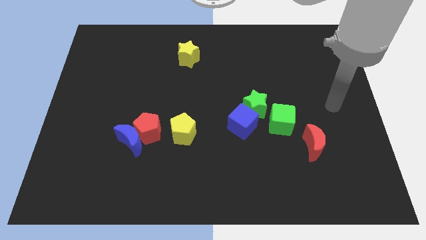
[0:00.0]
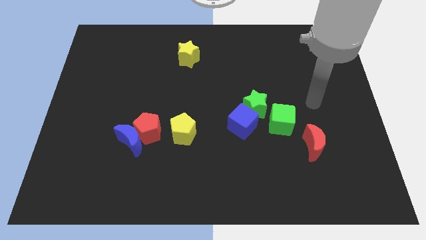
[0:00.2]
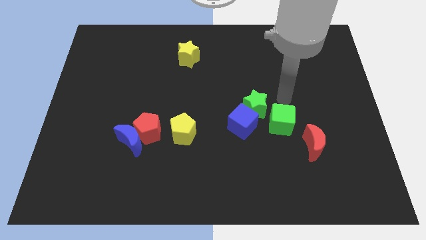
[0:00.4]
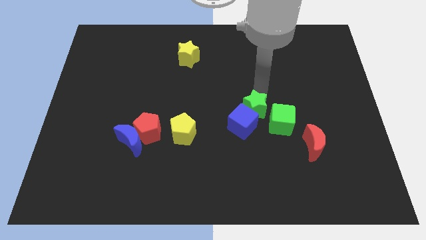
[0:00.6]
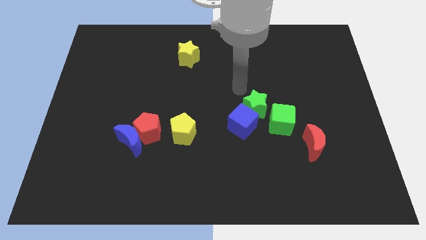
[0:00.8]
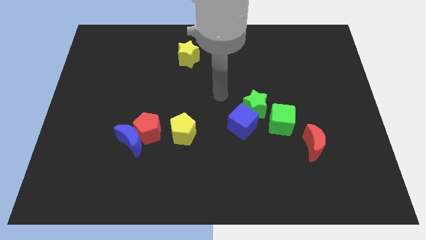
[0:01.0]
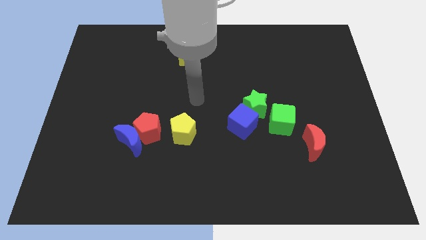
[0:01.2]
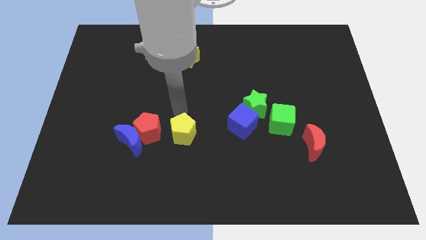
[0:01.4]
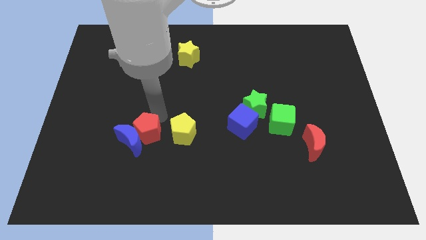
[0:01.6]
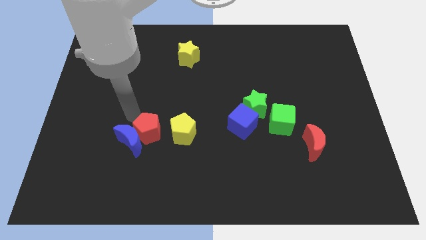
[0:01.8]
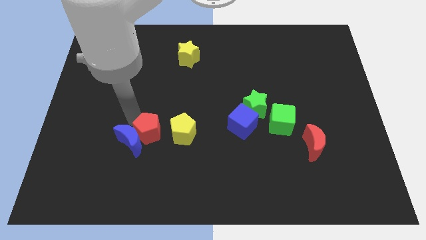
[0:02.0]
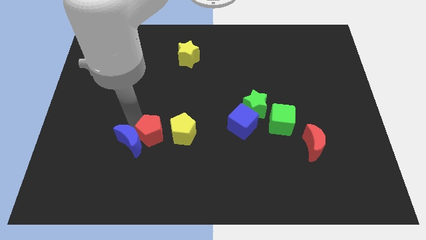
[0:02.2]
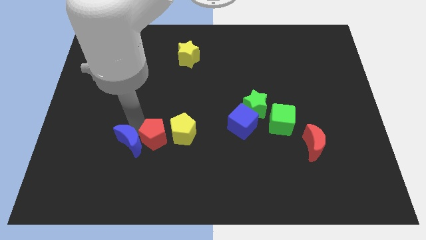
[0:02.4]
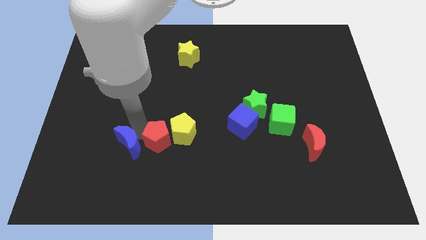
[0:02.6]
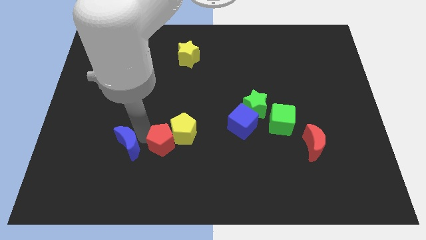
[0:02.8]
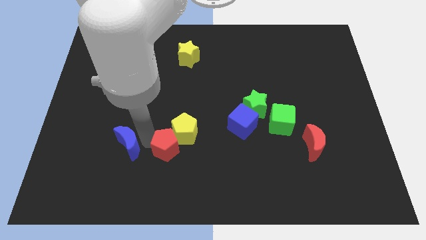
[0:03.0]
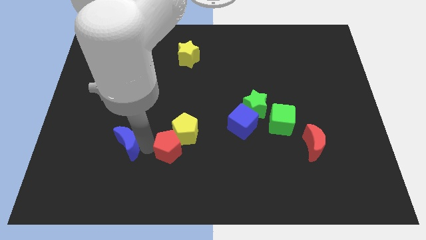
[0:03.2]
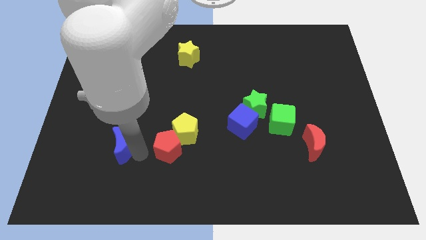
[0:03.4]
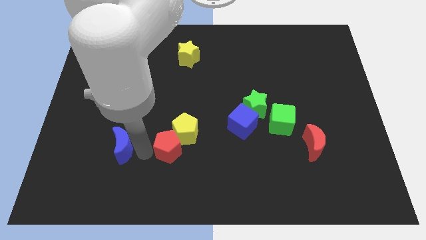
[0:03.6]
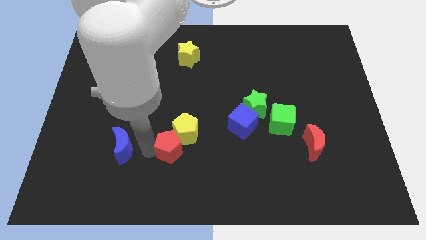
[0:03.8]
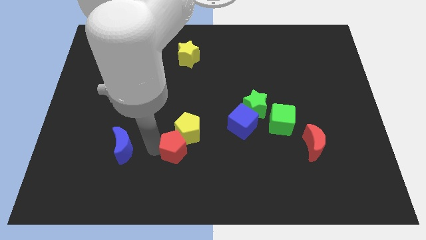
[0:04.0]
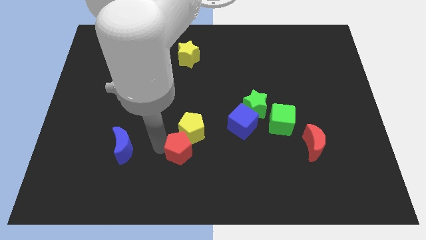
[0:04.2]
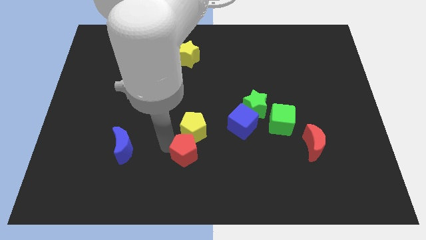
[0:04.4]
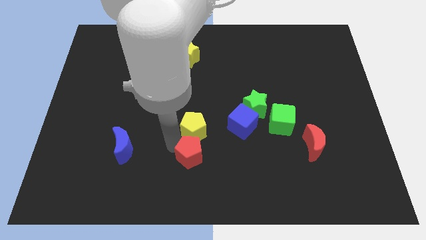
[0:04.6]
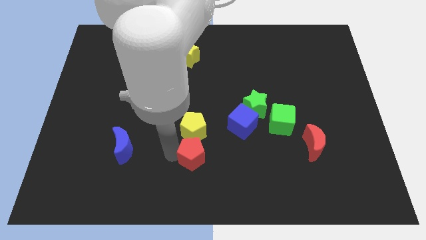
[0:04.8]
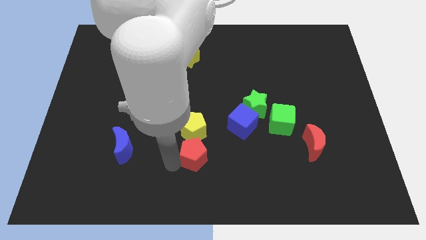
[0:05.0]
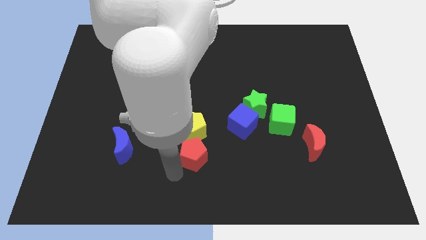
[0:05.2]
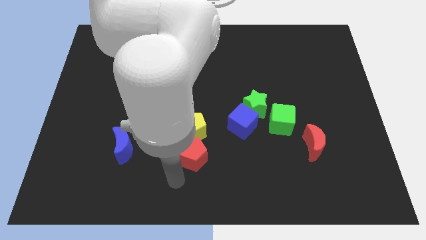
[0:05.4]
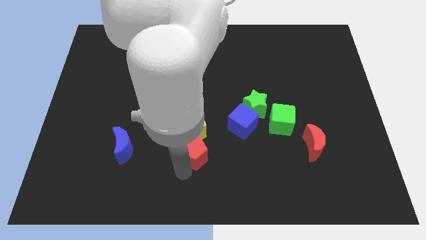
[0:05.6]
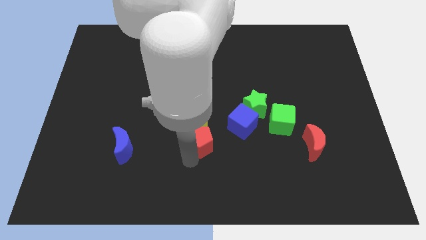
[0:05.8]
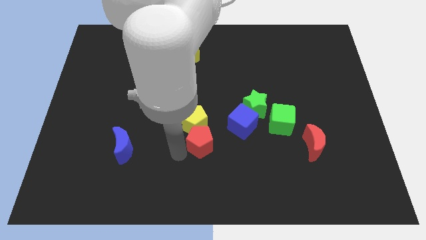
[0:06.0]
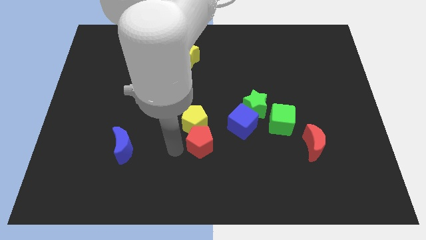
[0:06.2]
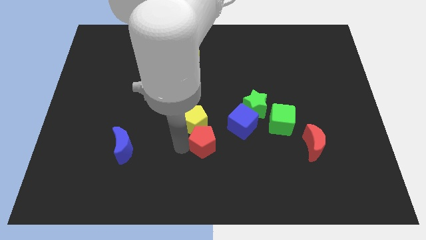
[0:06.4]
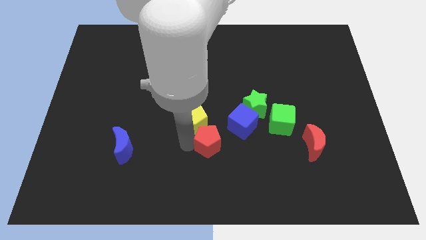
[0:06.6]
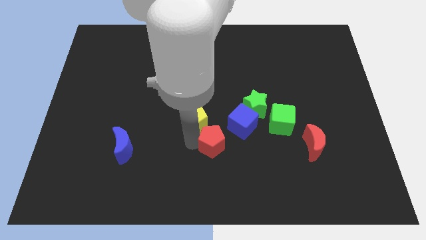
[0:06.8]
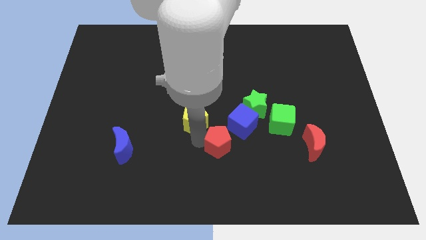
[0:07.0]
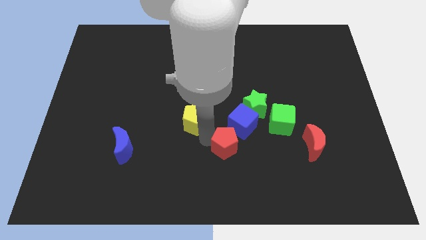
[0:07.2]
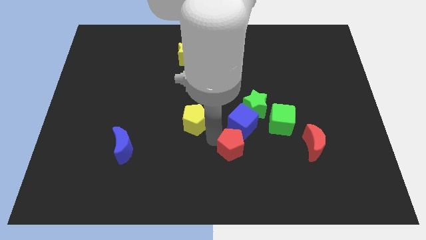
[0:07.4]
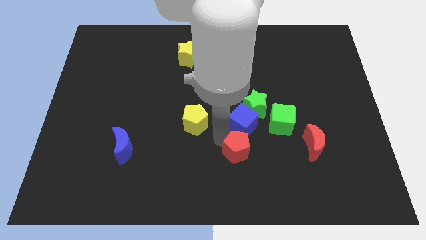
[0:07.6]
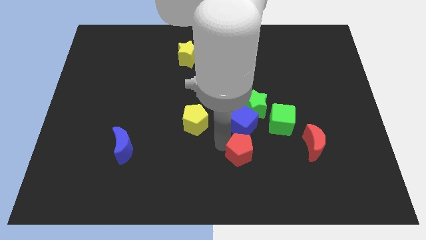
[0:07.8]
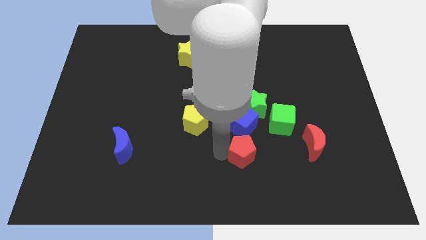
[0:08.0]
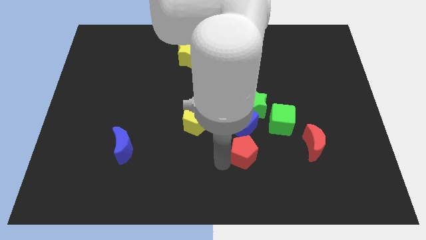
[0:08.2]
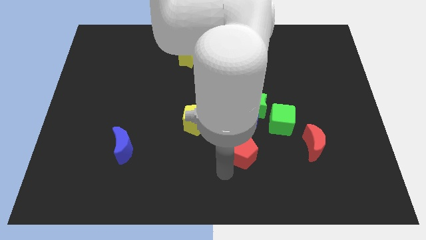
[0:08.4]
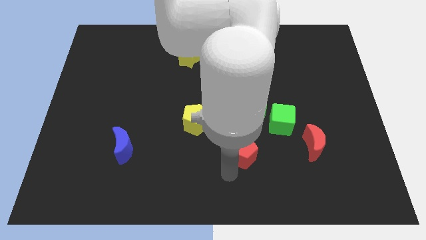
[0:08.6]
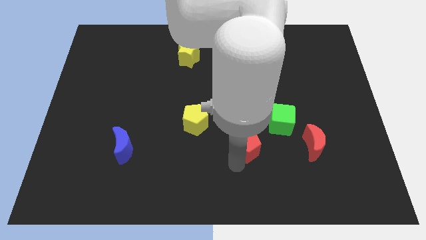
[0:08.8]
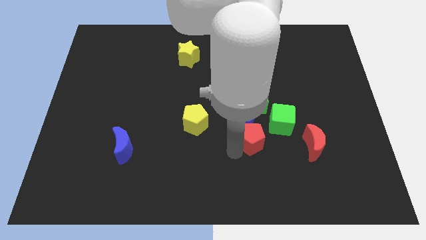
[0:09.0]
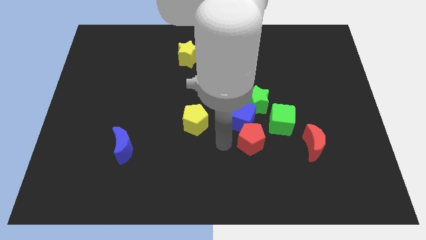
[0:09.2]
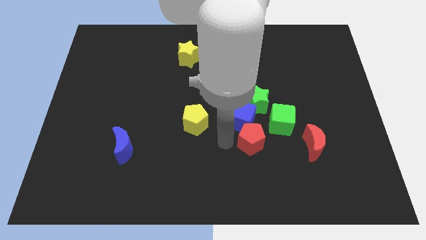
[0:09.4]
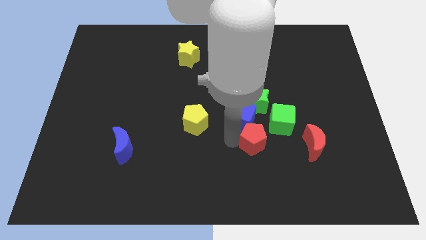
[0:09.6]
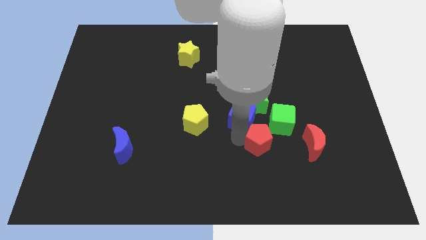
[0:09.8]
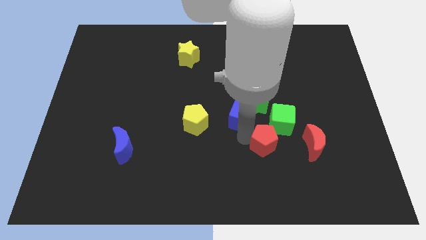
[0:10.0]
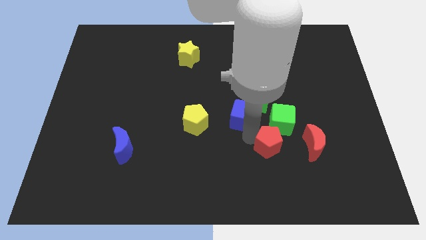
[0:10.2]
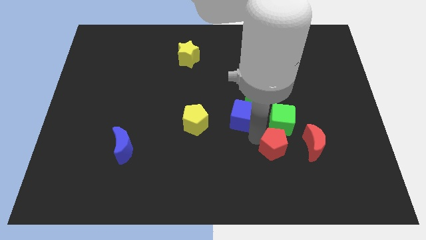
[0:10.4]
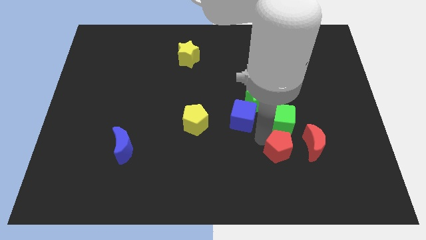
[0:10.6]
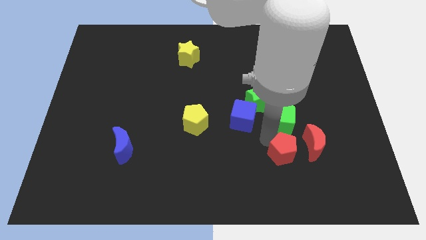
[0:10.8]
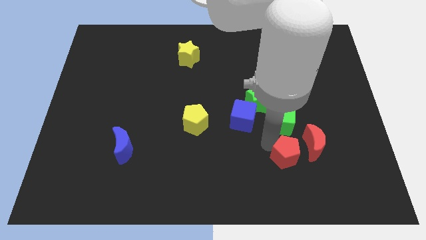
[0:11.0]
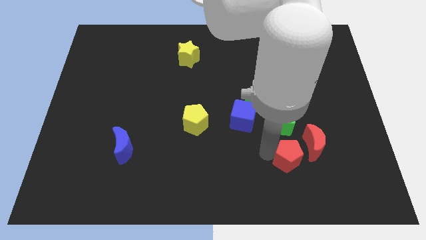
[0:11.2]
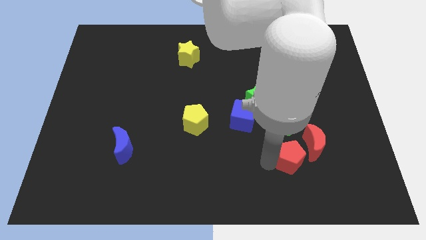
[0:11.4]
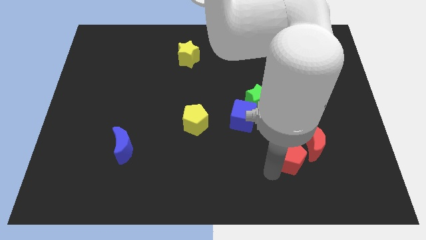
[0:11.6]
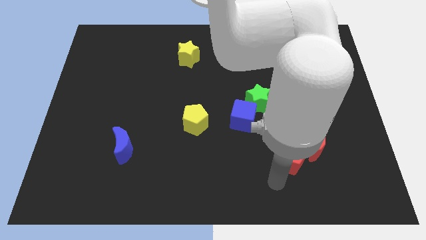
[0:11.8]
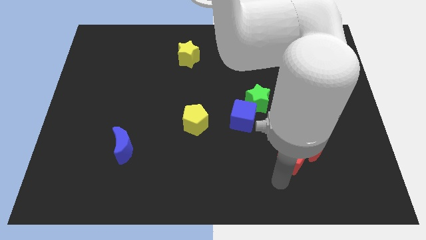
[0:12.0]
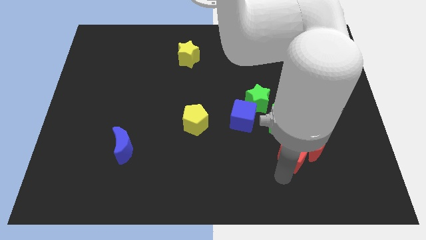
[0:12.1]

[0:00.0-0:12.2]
push the red pentagon close to the red moon

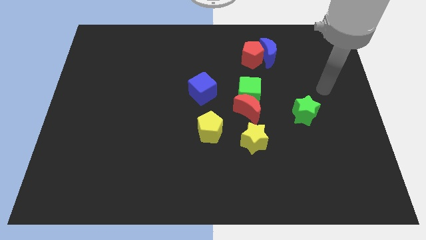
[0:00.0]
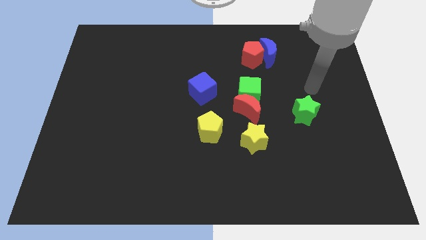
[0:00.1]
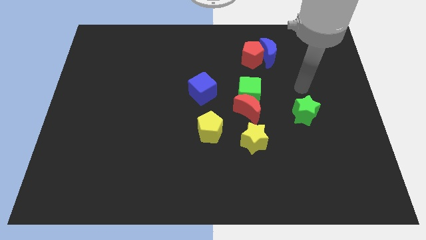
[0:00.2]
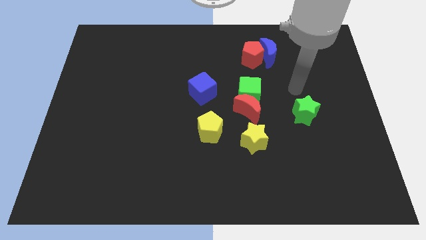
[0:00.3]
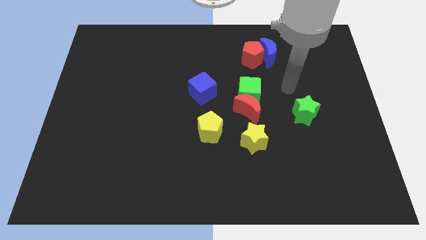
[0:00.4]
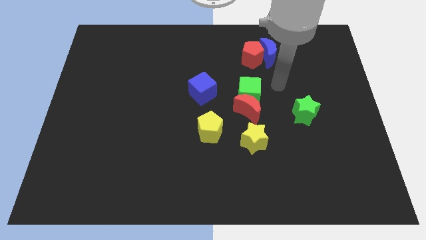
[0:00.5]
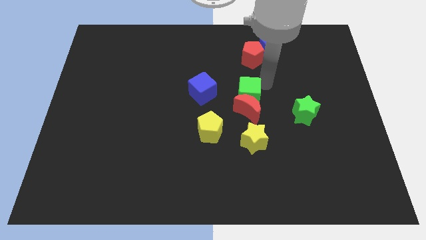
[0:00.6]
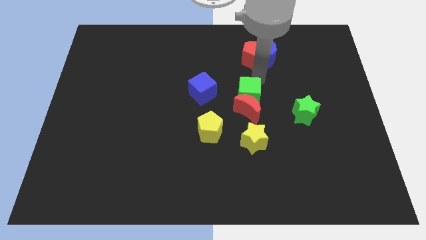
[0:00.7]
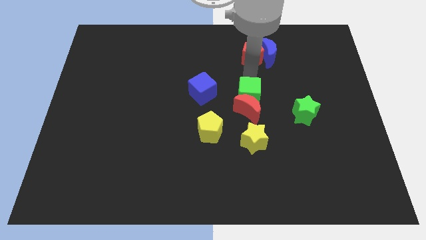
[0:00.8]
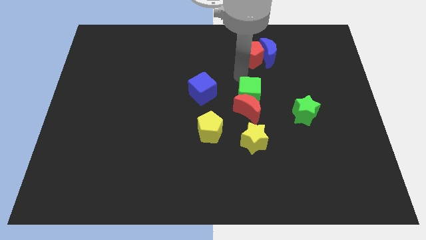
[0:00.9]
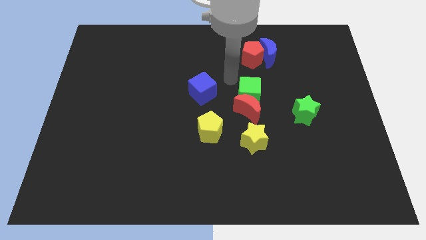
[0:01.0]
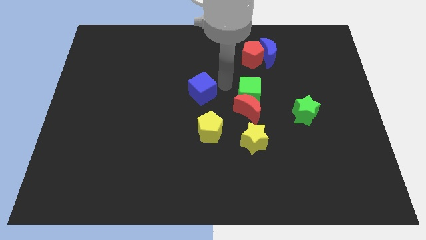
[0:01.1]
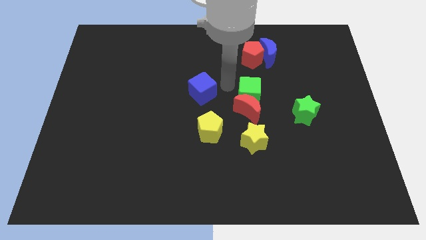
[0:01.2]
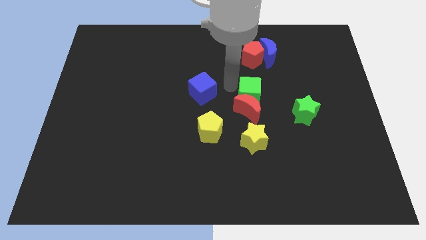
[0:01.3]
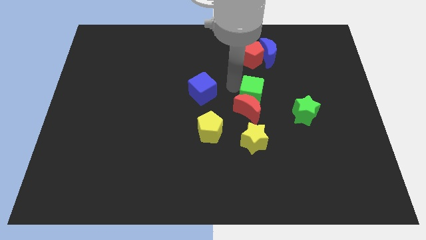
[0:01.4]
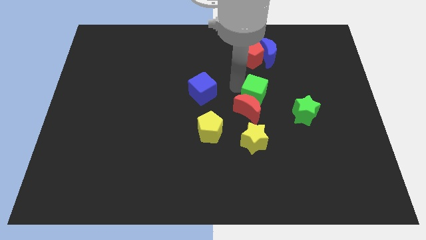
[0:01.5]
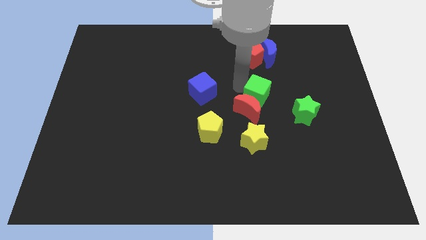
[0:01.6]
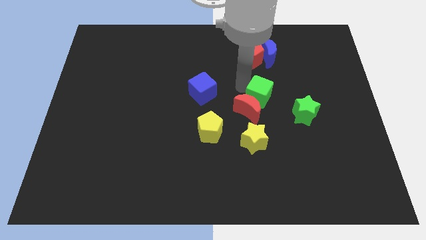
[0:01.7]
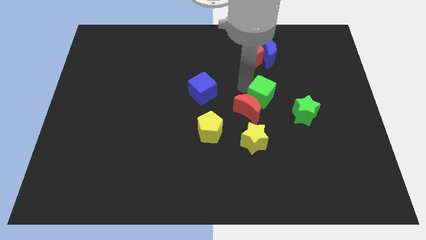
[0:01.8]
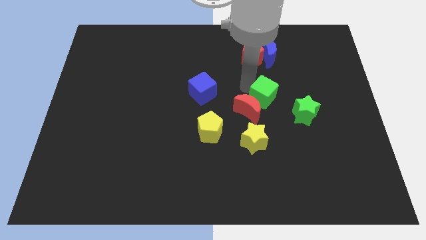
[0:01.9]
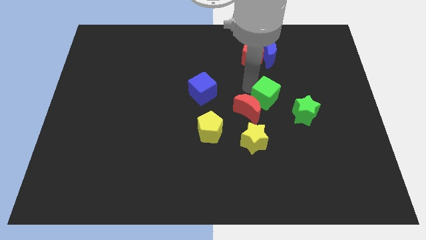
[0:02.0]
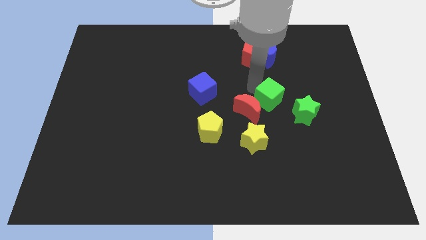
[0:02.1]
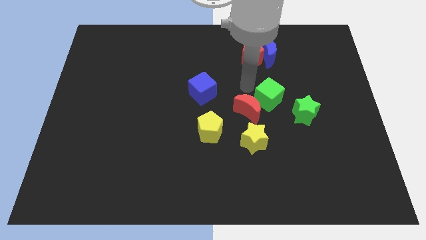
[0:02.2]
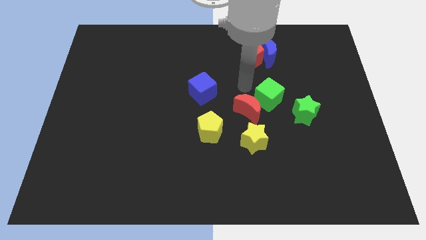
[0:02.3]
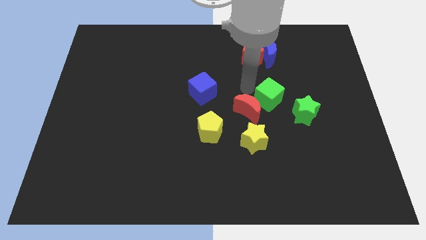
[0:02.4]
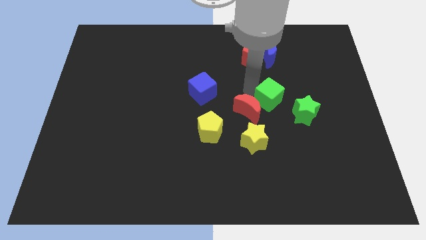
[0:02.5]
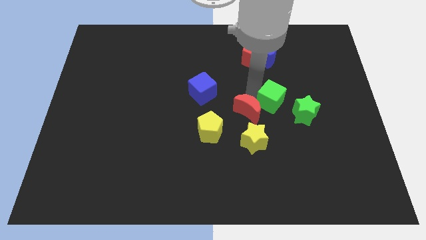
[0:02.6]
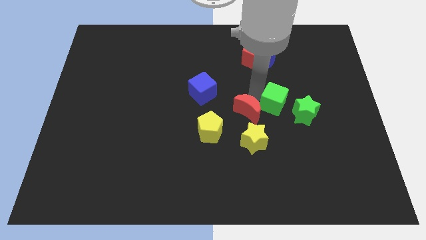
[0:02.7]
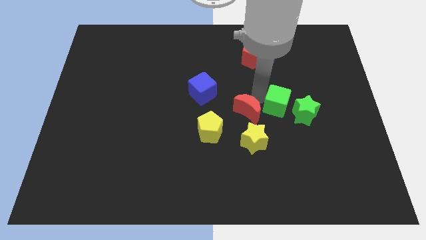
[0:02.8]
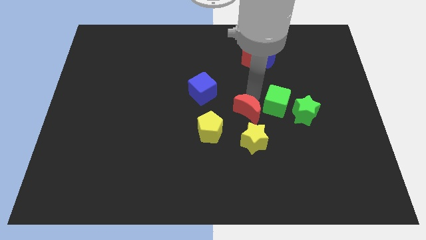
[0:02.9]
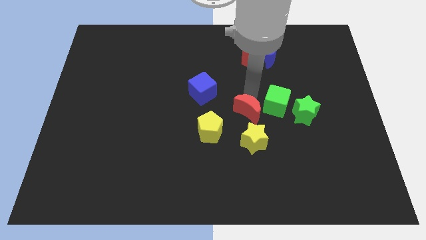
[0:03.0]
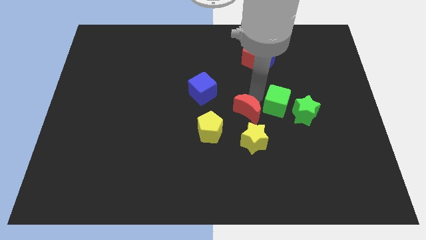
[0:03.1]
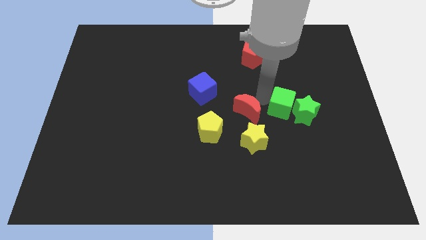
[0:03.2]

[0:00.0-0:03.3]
push the green cube close to the green star
